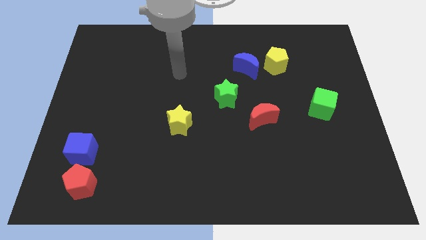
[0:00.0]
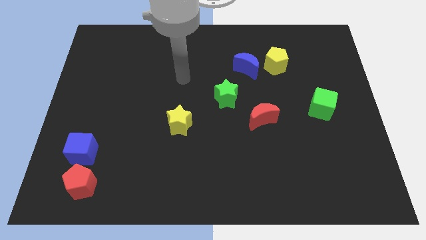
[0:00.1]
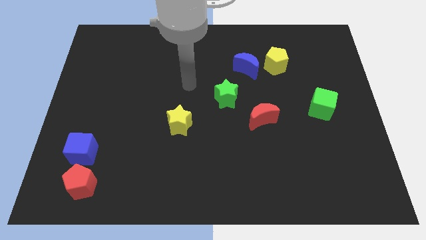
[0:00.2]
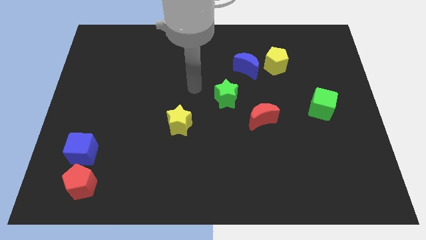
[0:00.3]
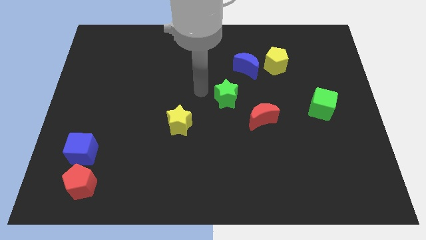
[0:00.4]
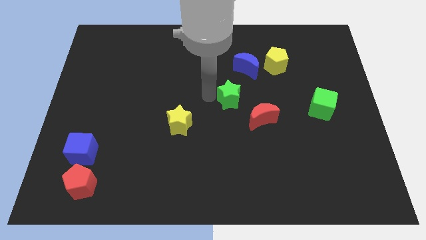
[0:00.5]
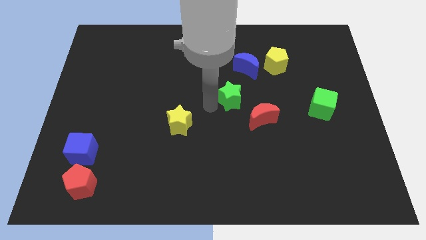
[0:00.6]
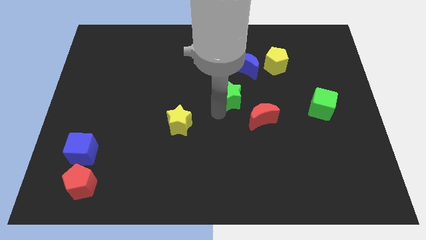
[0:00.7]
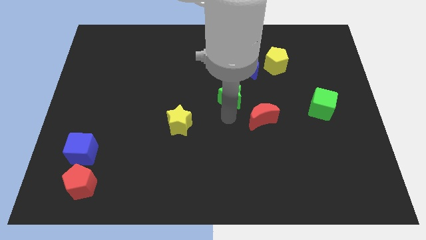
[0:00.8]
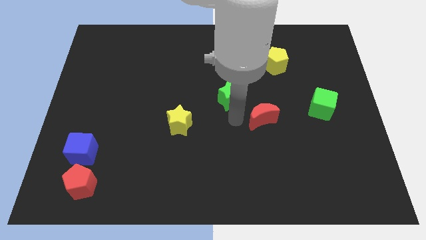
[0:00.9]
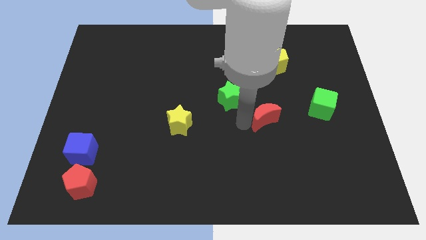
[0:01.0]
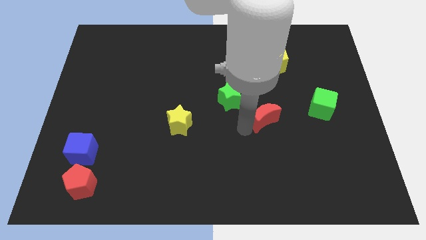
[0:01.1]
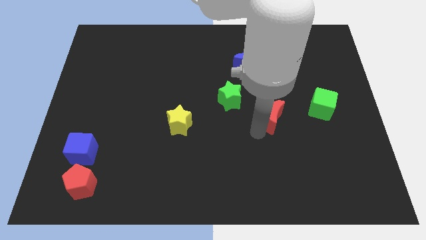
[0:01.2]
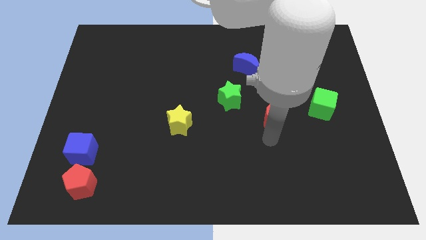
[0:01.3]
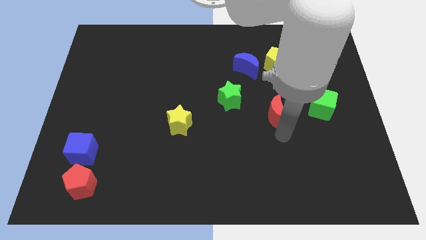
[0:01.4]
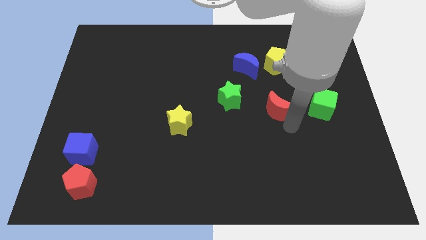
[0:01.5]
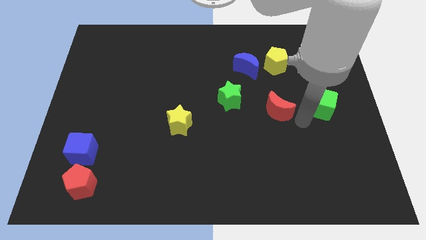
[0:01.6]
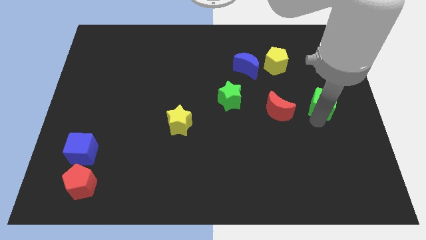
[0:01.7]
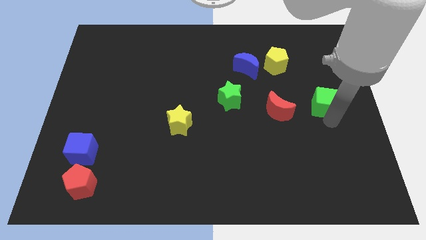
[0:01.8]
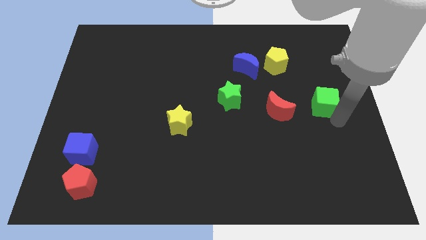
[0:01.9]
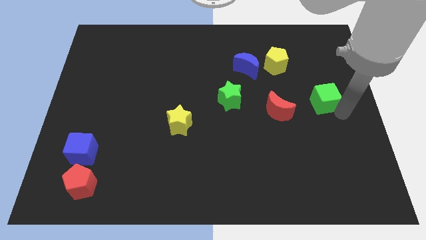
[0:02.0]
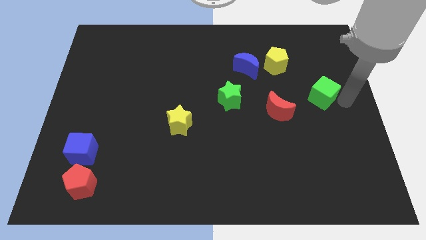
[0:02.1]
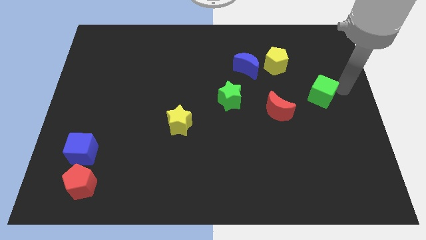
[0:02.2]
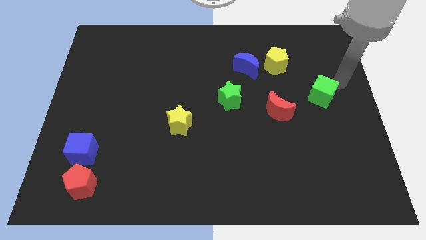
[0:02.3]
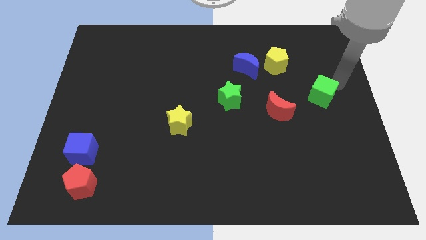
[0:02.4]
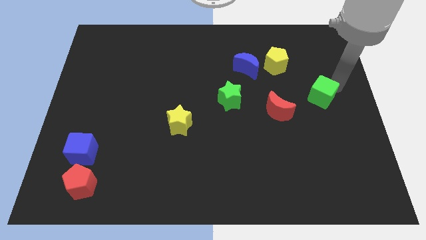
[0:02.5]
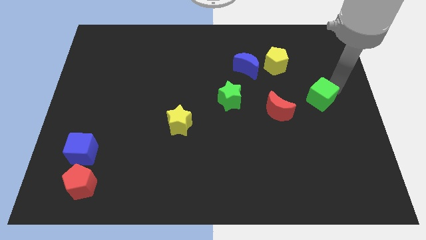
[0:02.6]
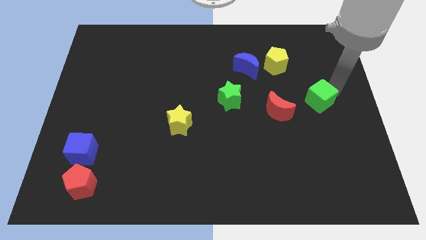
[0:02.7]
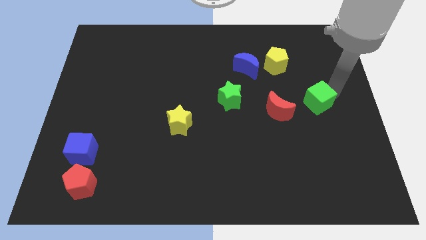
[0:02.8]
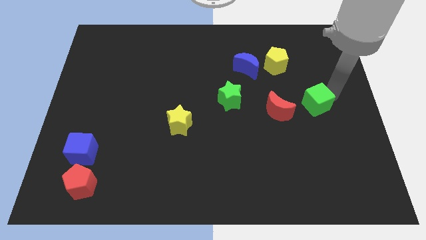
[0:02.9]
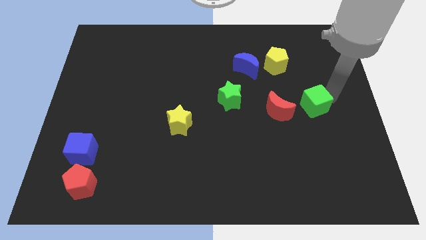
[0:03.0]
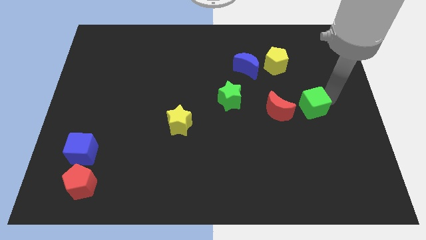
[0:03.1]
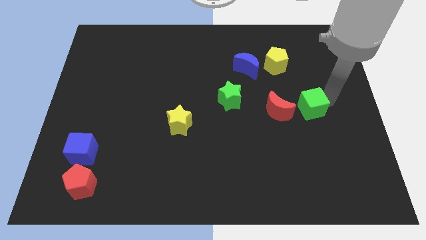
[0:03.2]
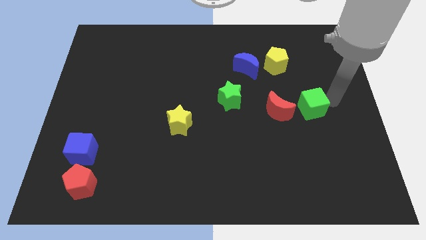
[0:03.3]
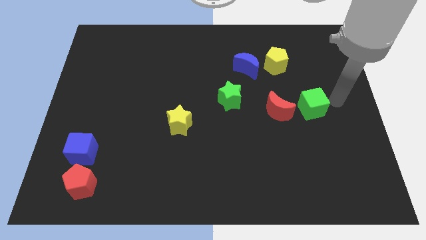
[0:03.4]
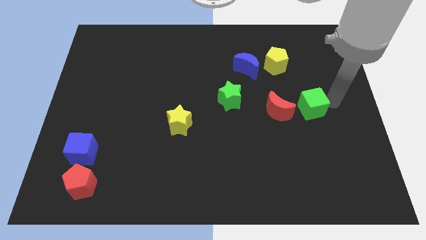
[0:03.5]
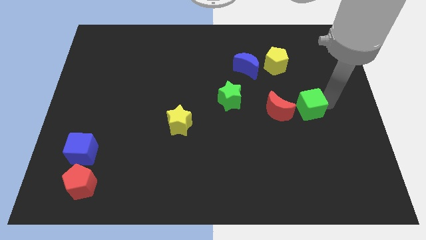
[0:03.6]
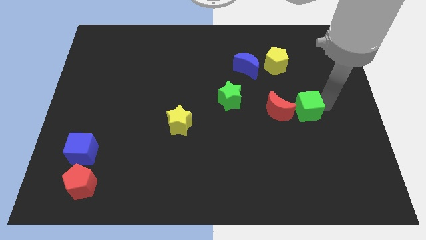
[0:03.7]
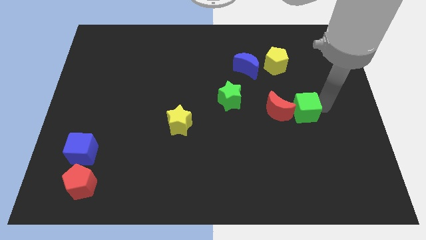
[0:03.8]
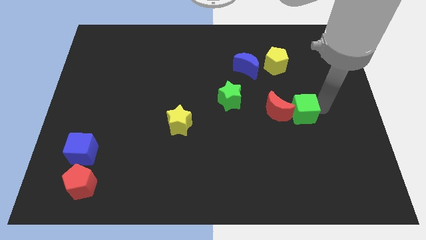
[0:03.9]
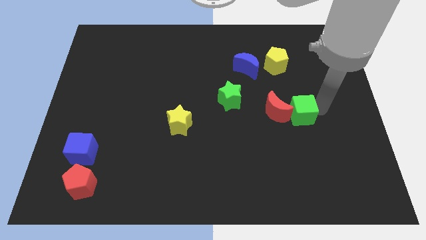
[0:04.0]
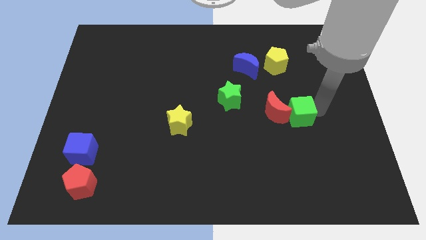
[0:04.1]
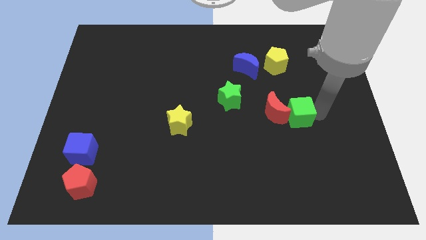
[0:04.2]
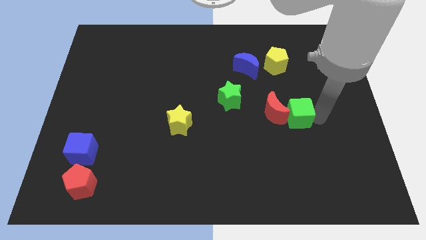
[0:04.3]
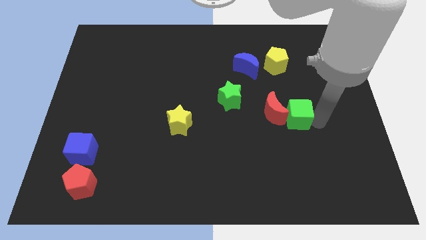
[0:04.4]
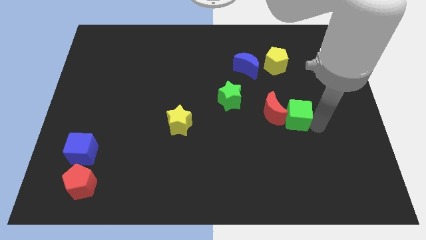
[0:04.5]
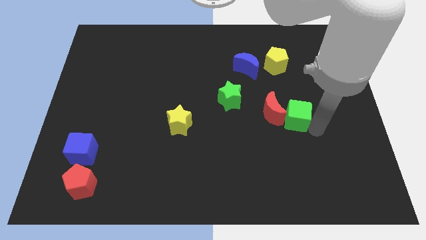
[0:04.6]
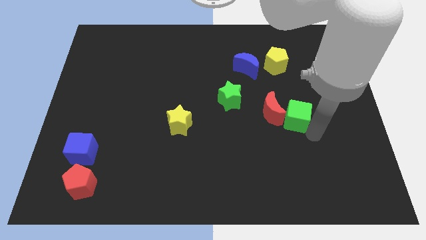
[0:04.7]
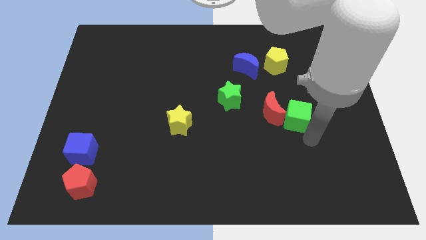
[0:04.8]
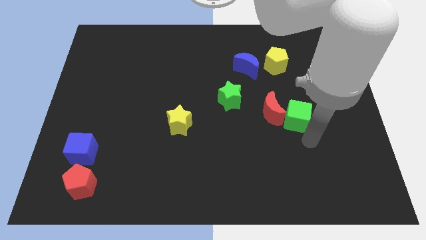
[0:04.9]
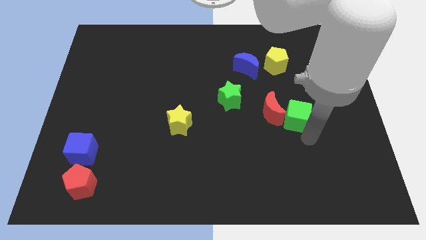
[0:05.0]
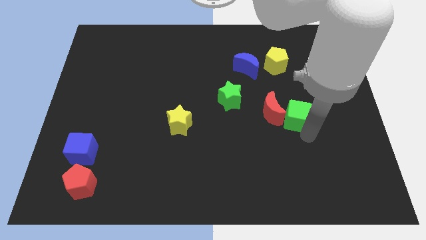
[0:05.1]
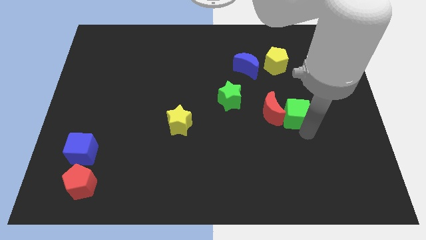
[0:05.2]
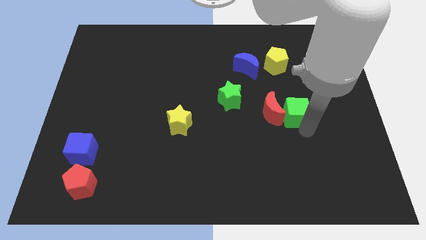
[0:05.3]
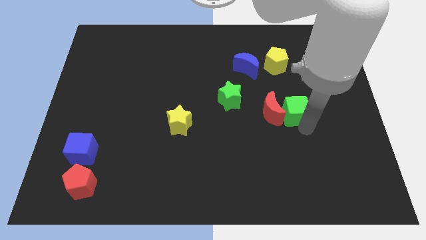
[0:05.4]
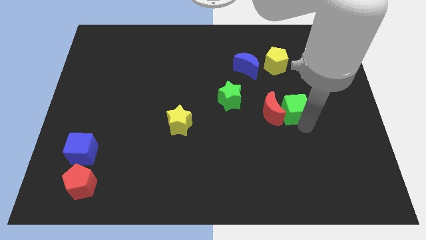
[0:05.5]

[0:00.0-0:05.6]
put the green cube to the right of the green star

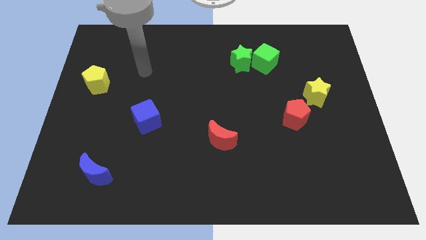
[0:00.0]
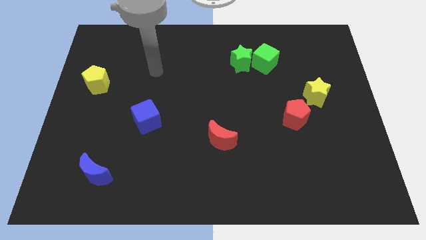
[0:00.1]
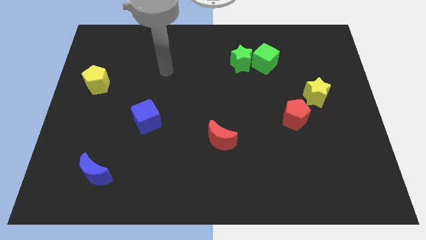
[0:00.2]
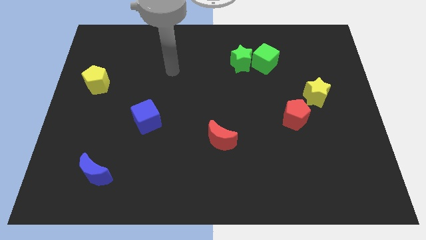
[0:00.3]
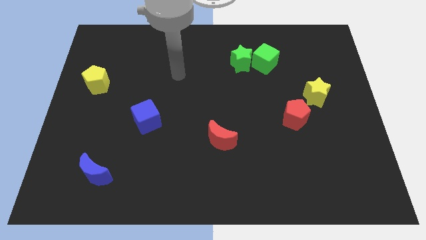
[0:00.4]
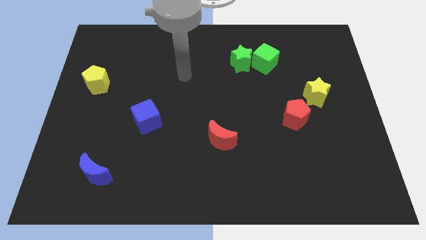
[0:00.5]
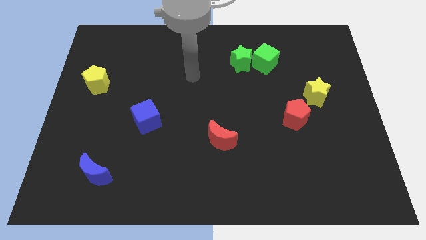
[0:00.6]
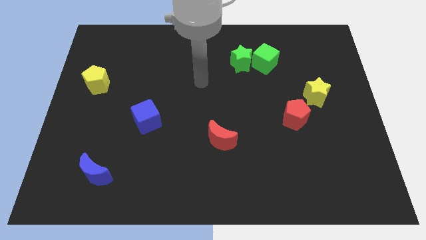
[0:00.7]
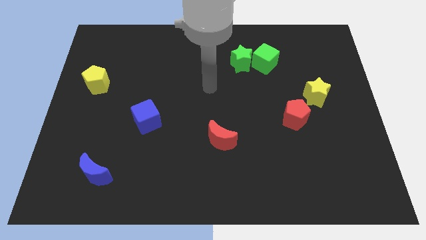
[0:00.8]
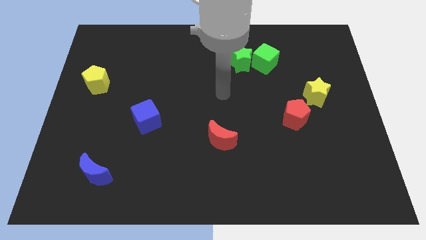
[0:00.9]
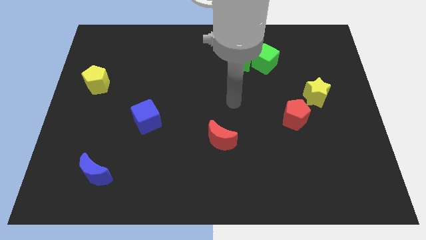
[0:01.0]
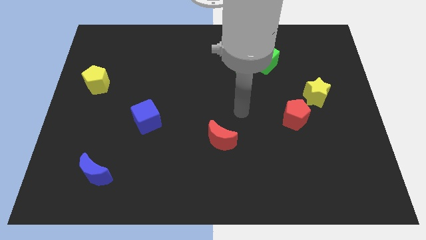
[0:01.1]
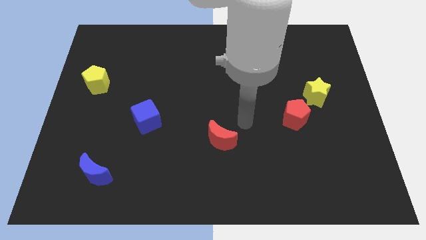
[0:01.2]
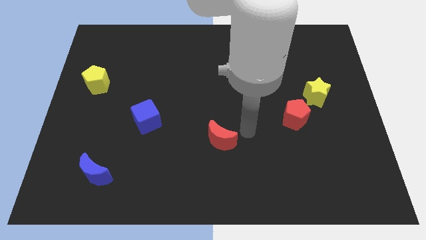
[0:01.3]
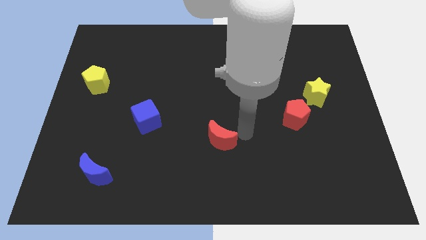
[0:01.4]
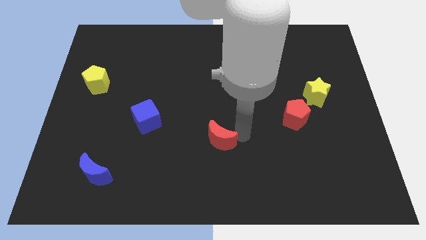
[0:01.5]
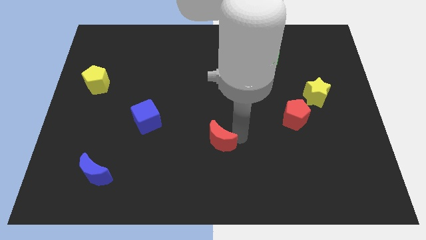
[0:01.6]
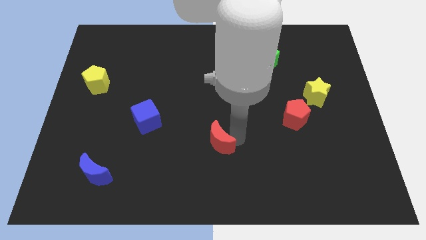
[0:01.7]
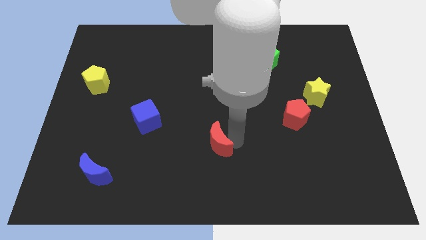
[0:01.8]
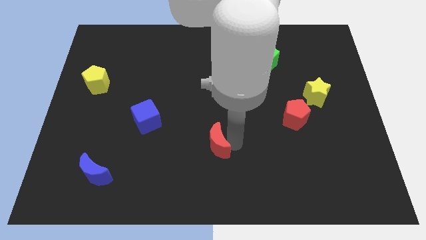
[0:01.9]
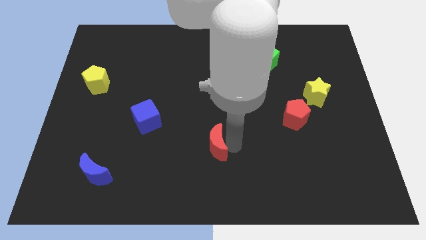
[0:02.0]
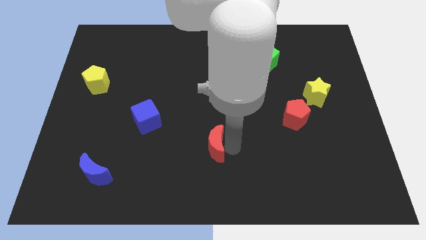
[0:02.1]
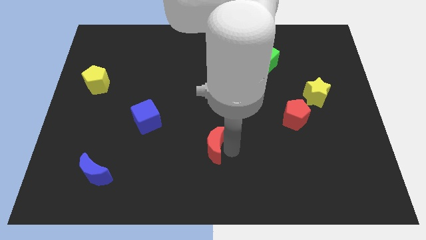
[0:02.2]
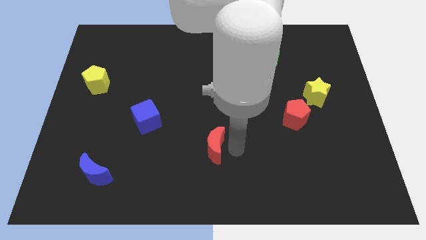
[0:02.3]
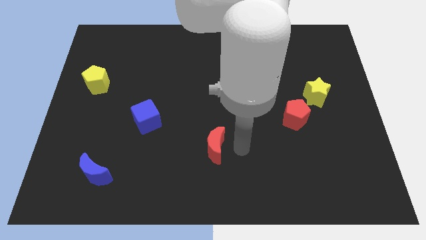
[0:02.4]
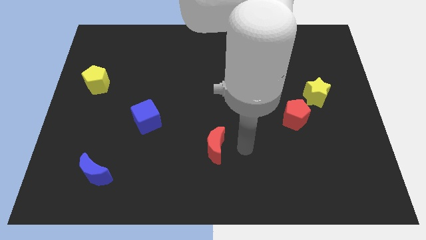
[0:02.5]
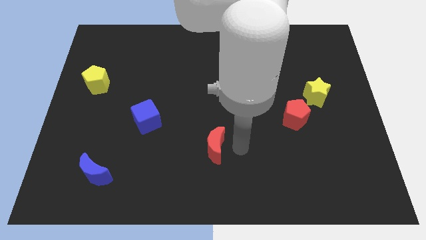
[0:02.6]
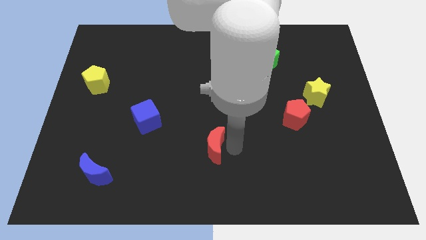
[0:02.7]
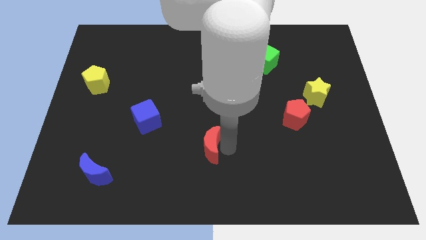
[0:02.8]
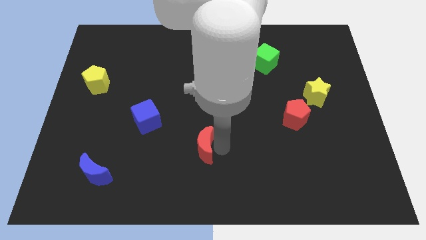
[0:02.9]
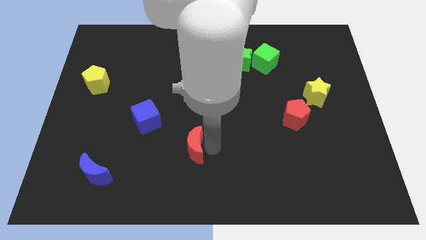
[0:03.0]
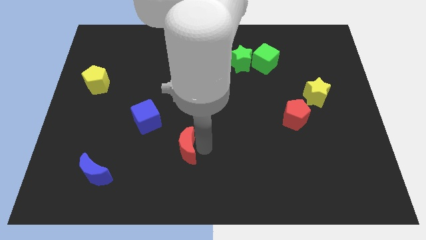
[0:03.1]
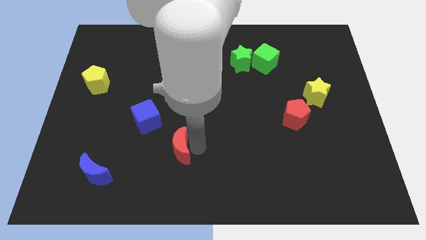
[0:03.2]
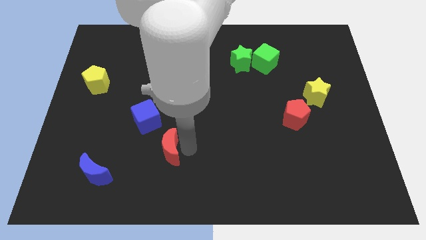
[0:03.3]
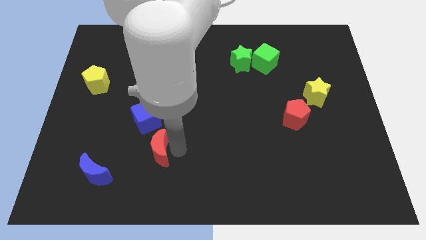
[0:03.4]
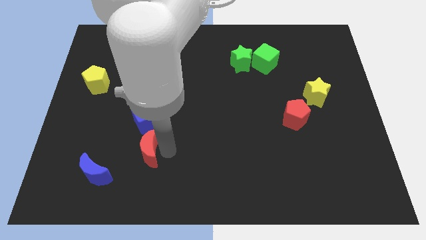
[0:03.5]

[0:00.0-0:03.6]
push the red moon to the top right side of the blue moon
